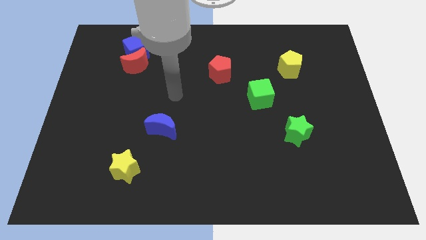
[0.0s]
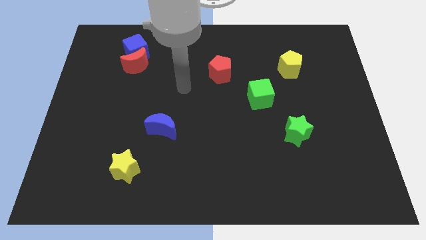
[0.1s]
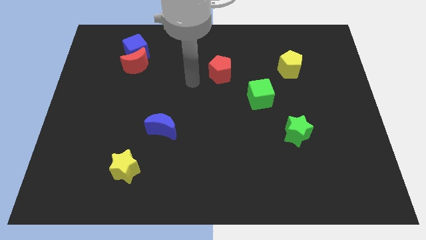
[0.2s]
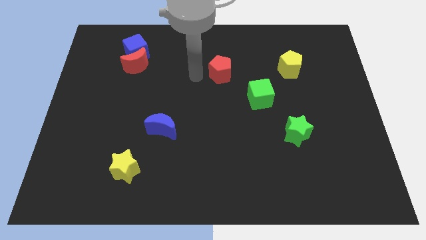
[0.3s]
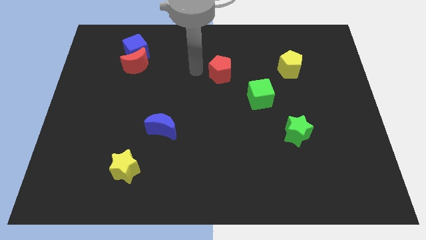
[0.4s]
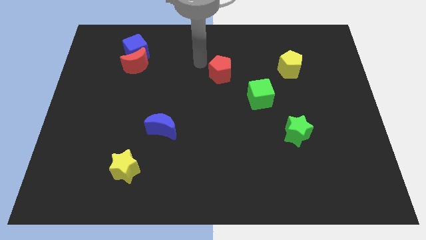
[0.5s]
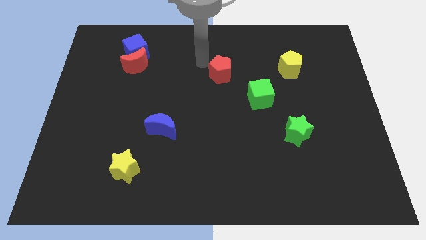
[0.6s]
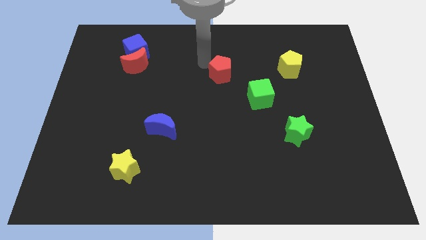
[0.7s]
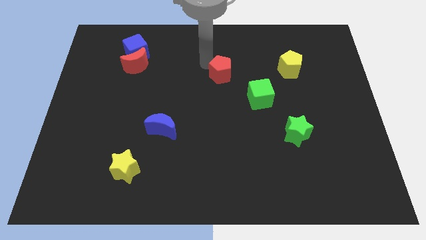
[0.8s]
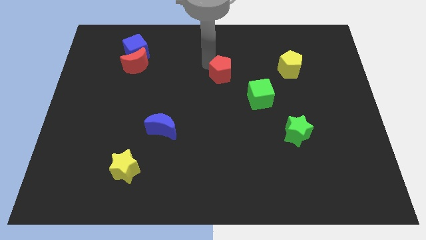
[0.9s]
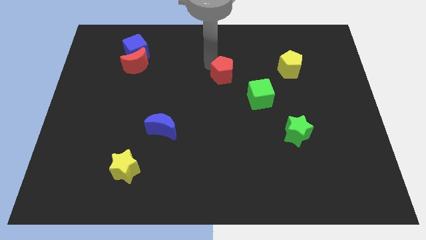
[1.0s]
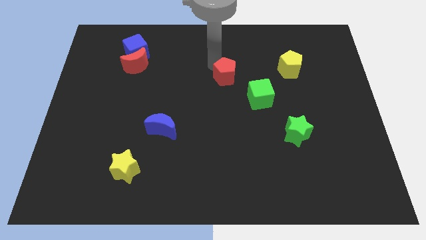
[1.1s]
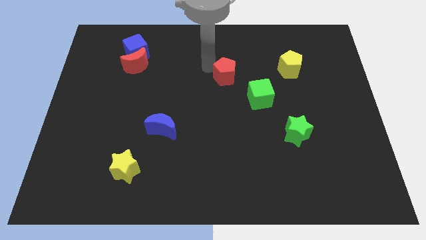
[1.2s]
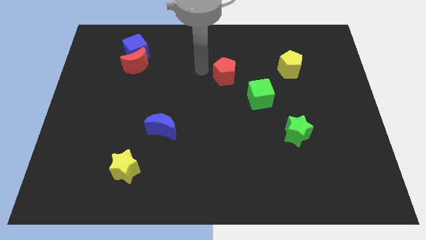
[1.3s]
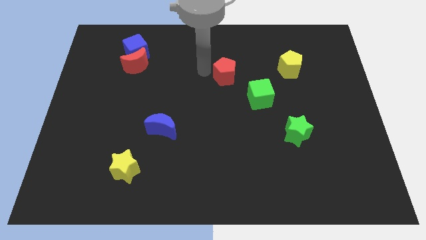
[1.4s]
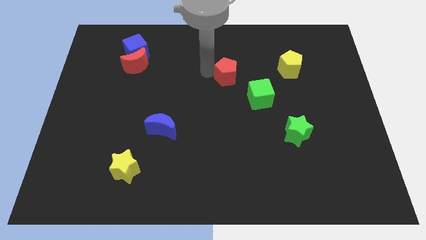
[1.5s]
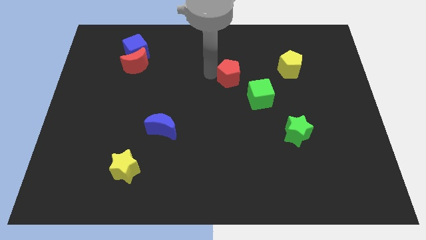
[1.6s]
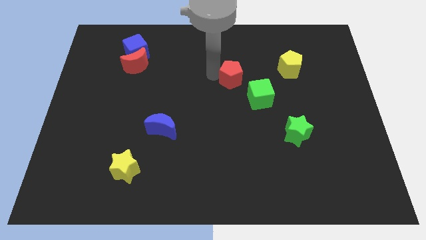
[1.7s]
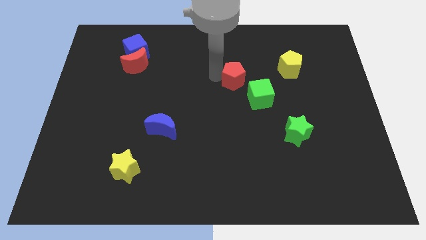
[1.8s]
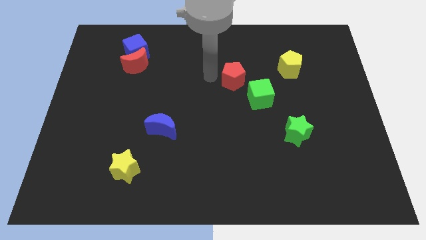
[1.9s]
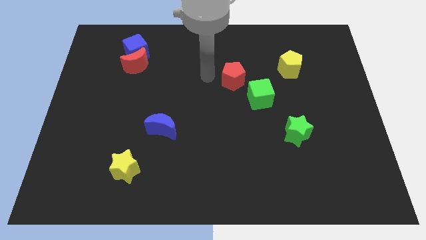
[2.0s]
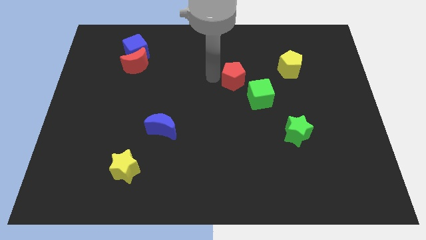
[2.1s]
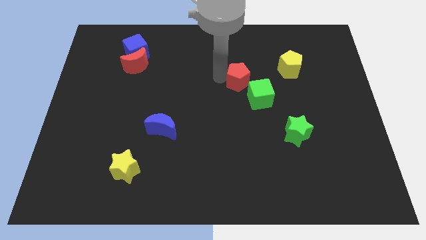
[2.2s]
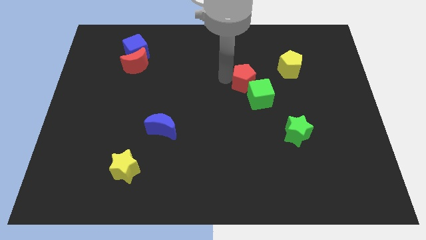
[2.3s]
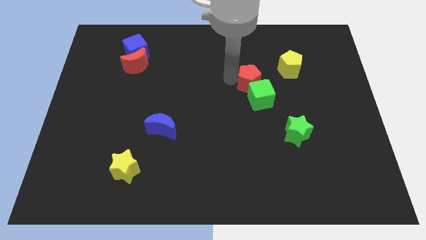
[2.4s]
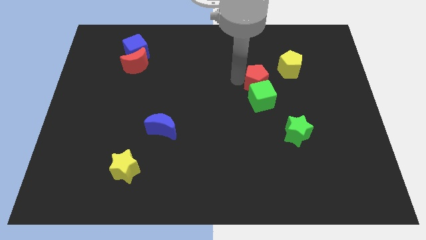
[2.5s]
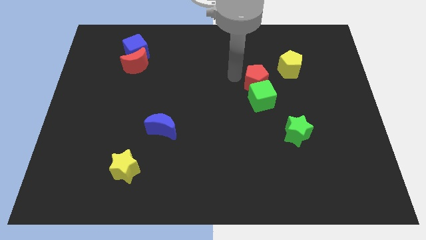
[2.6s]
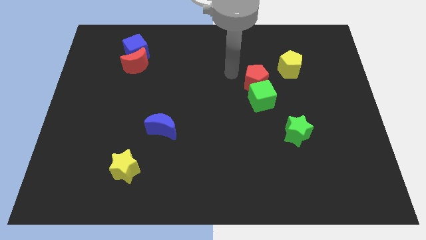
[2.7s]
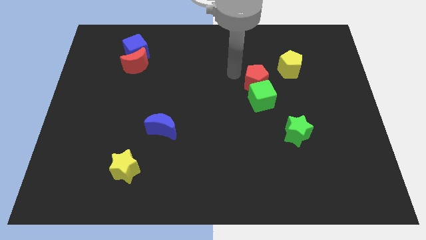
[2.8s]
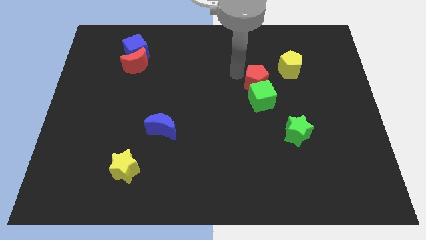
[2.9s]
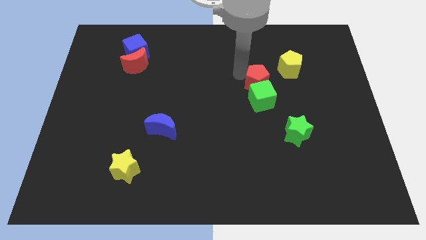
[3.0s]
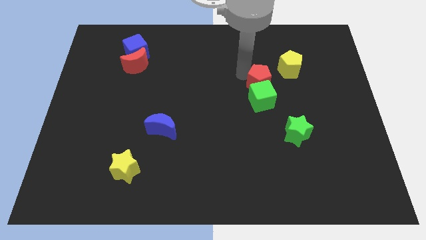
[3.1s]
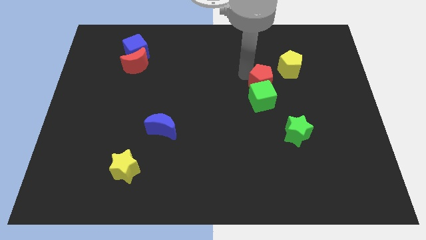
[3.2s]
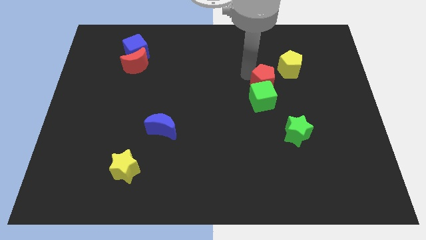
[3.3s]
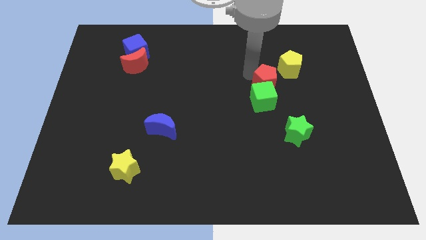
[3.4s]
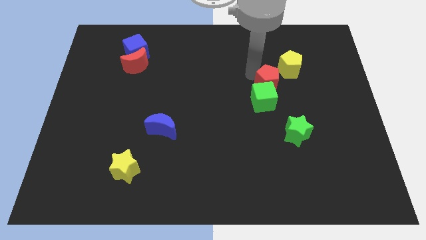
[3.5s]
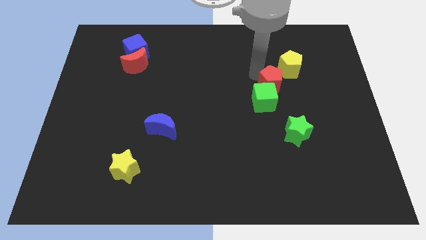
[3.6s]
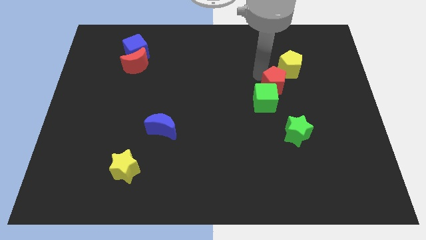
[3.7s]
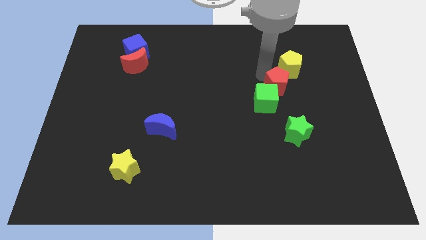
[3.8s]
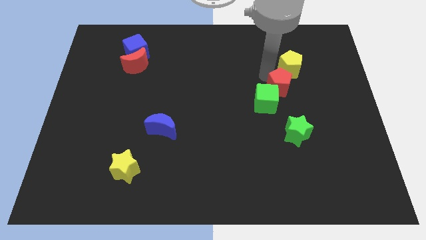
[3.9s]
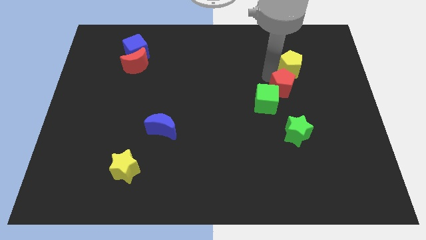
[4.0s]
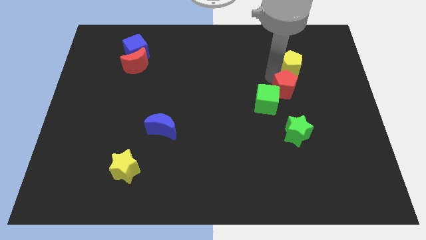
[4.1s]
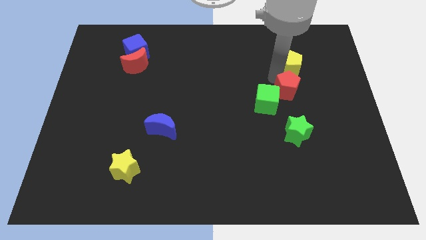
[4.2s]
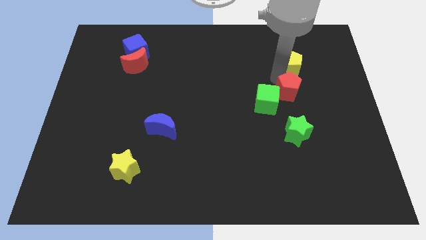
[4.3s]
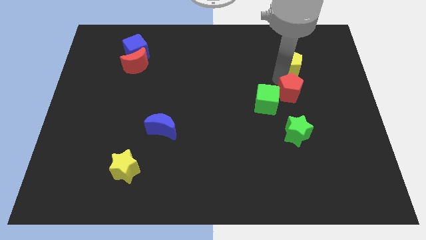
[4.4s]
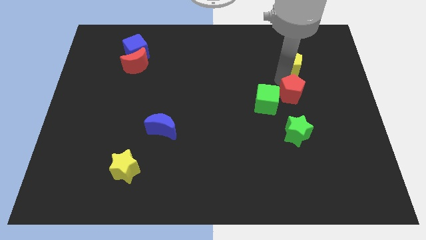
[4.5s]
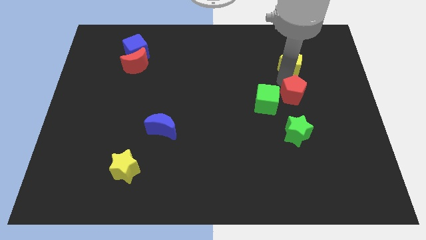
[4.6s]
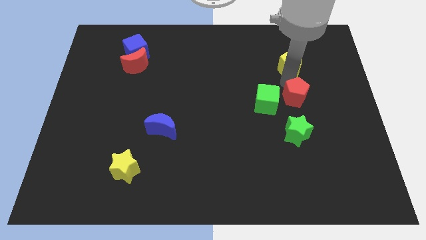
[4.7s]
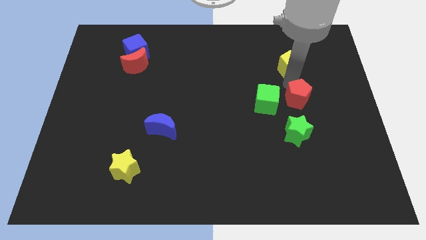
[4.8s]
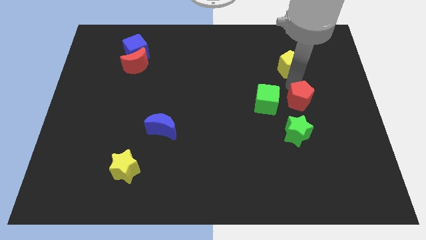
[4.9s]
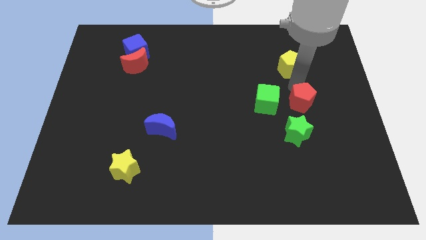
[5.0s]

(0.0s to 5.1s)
put the red pentagon to the top right of the green star

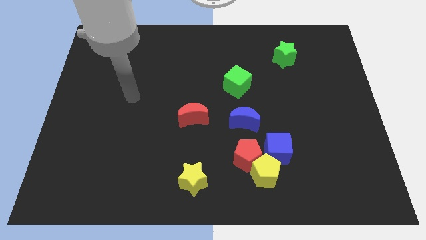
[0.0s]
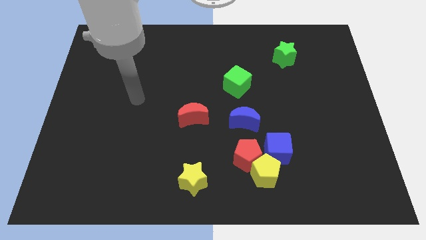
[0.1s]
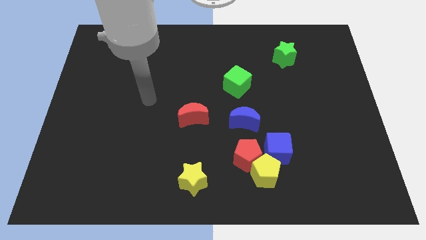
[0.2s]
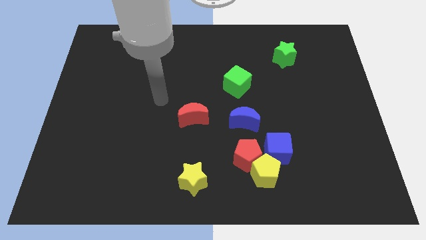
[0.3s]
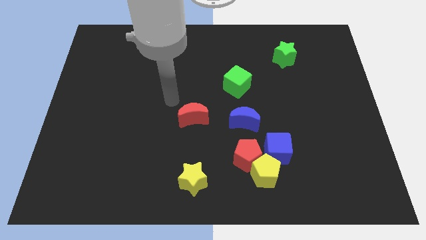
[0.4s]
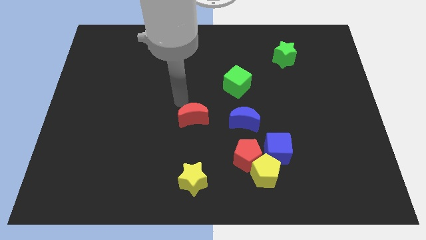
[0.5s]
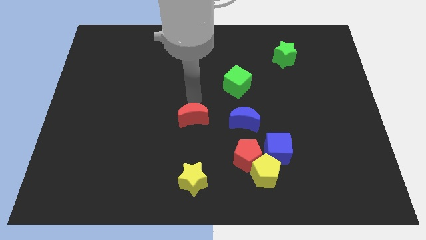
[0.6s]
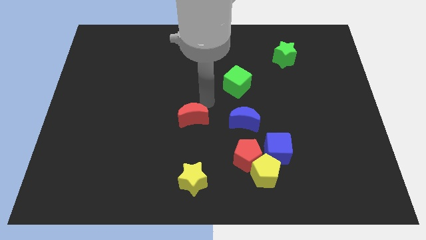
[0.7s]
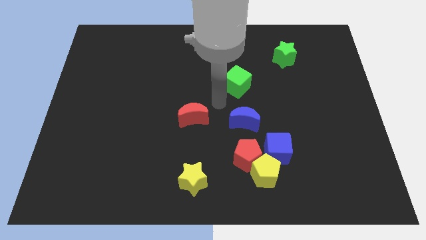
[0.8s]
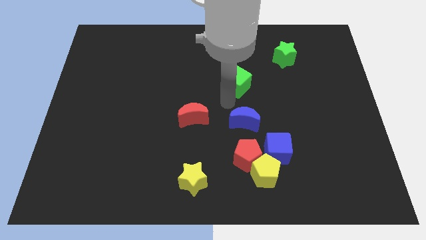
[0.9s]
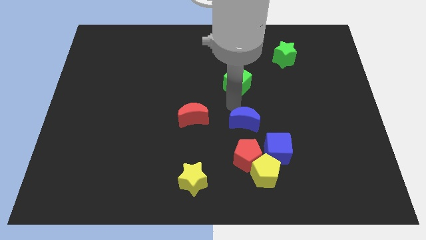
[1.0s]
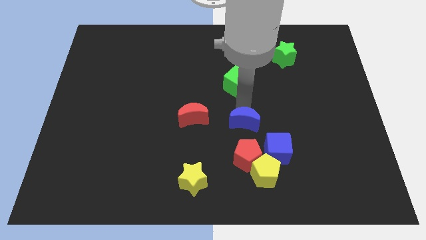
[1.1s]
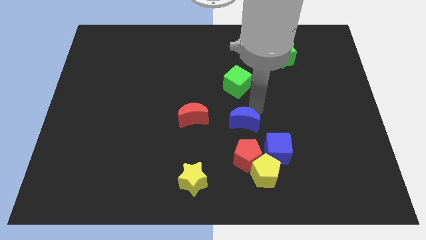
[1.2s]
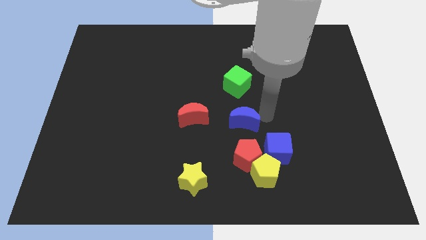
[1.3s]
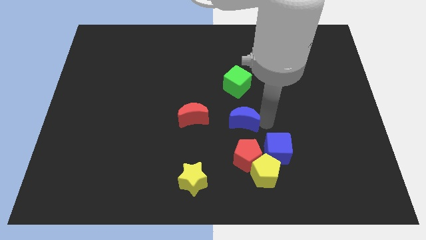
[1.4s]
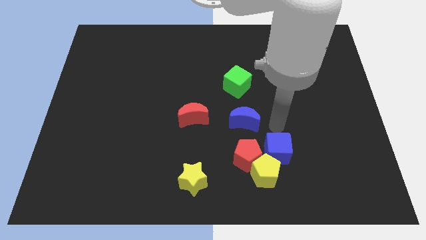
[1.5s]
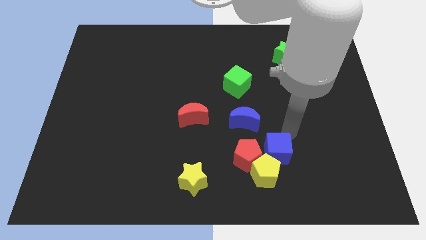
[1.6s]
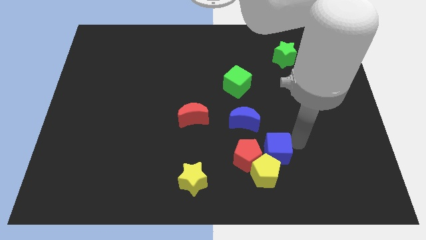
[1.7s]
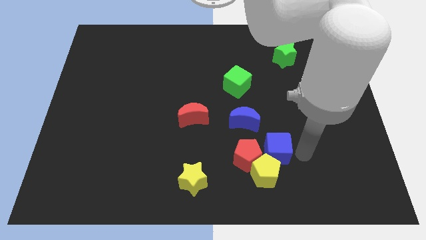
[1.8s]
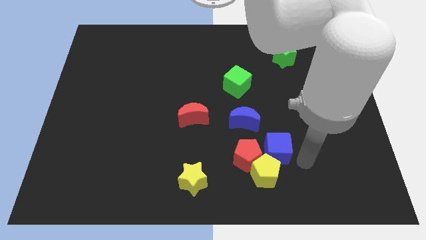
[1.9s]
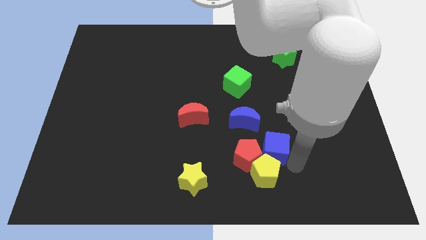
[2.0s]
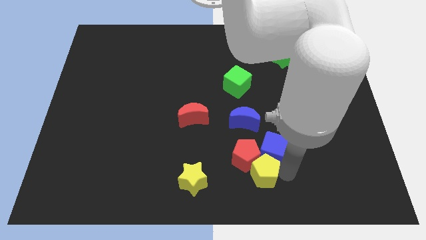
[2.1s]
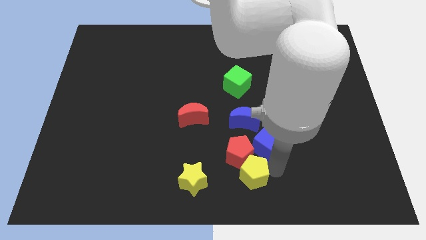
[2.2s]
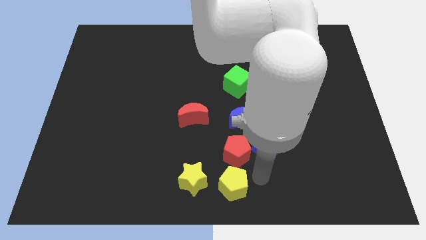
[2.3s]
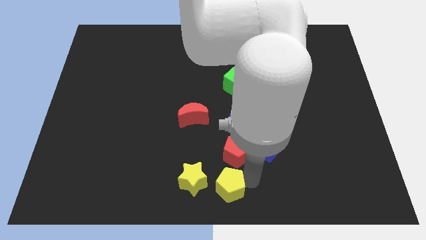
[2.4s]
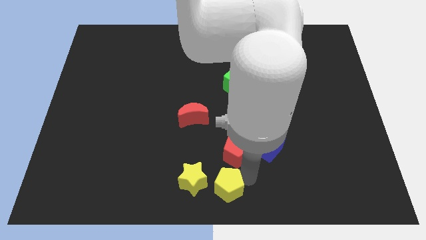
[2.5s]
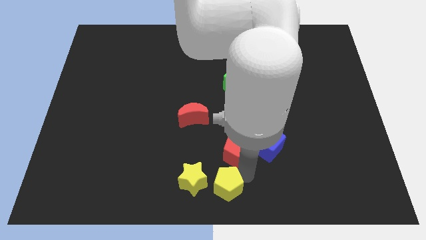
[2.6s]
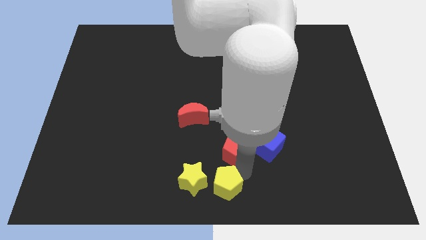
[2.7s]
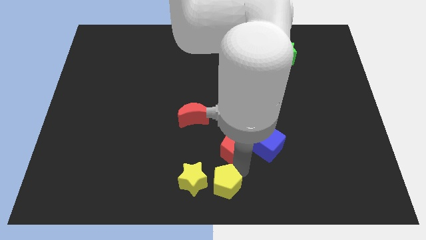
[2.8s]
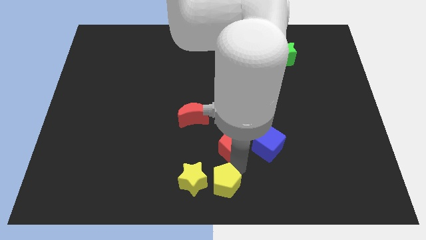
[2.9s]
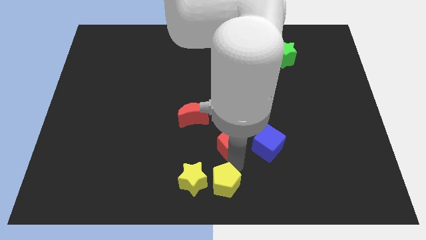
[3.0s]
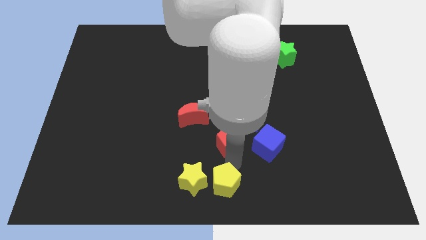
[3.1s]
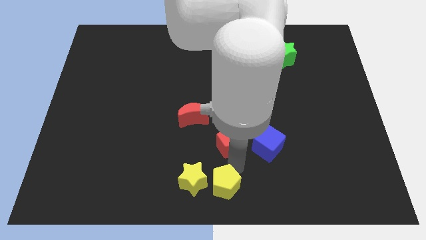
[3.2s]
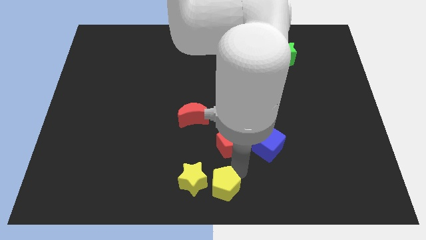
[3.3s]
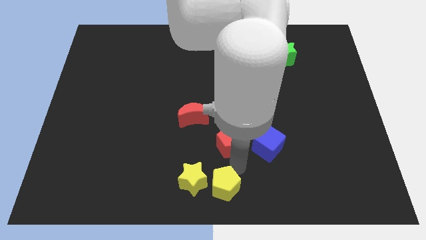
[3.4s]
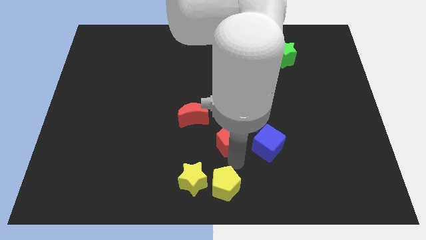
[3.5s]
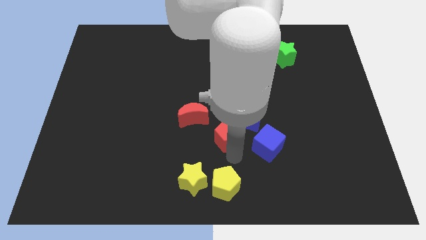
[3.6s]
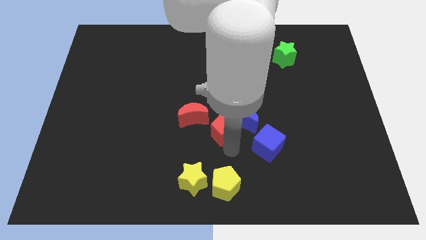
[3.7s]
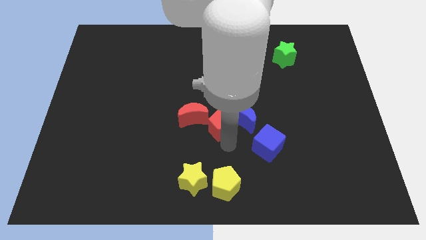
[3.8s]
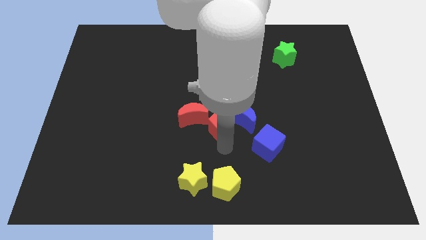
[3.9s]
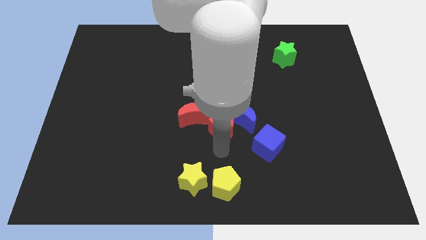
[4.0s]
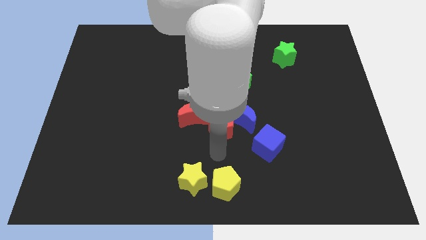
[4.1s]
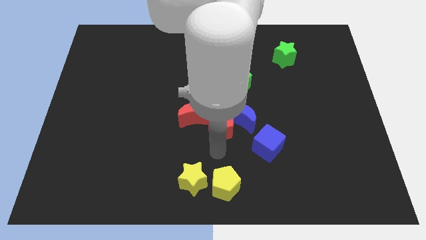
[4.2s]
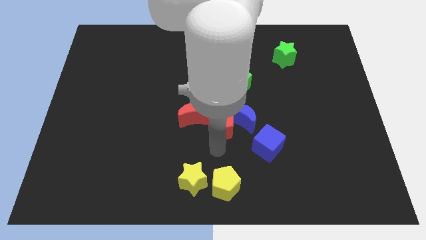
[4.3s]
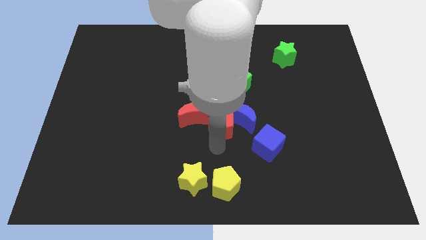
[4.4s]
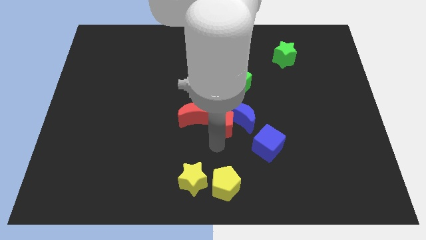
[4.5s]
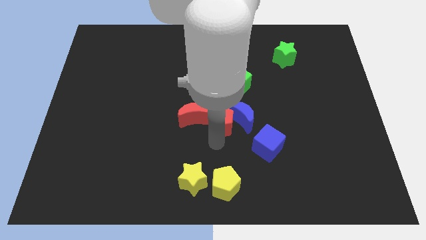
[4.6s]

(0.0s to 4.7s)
put the red pentagon to the top left of the blue moon
